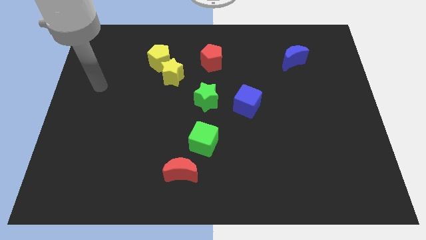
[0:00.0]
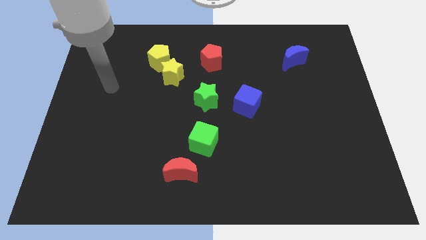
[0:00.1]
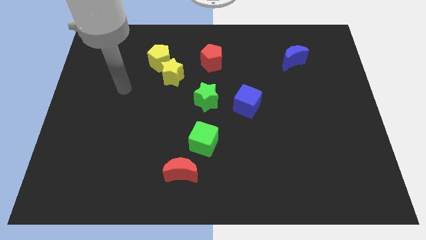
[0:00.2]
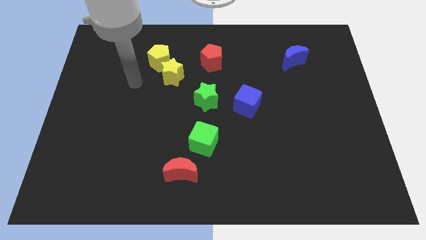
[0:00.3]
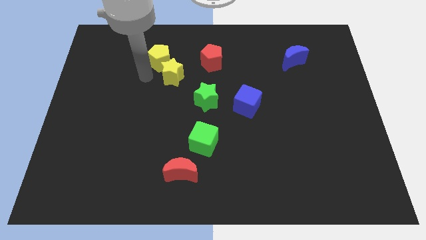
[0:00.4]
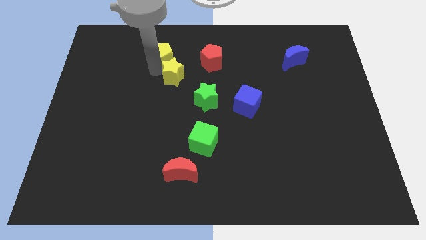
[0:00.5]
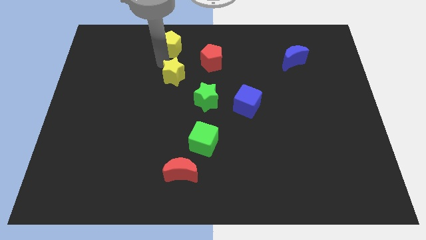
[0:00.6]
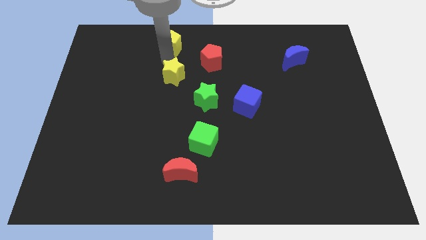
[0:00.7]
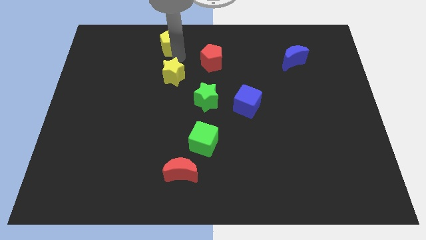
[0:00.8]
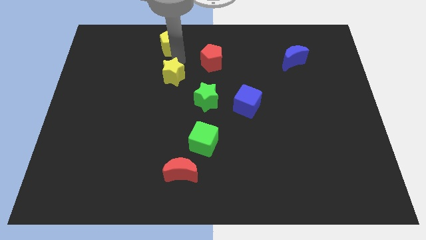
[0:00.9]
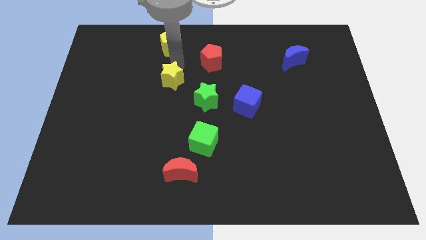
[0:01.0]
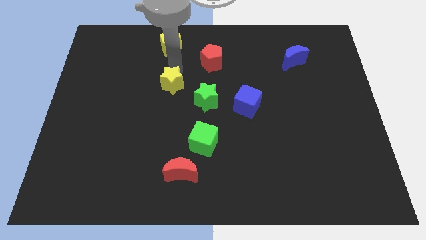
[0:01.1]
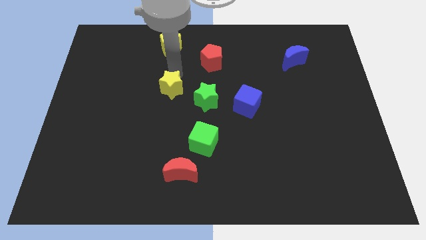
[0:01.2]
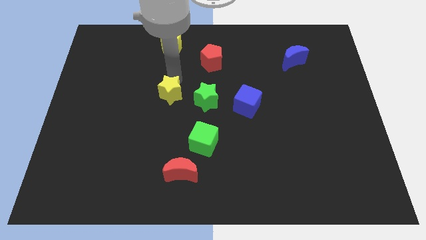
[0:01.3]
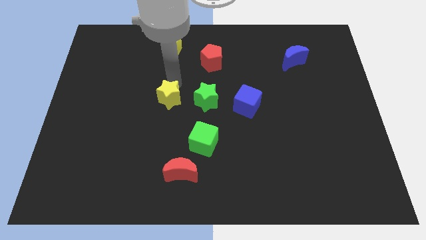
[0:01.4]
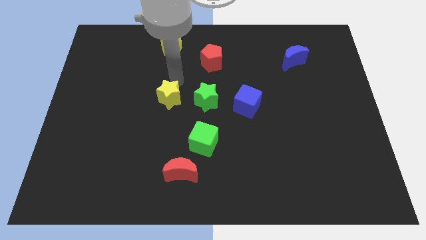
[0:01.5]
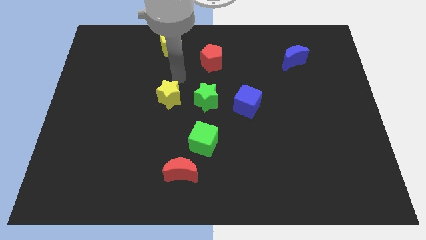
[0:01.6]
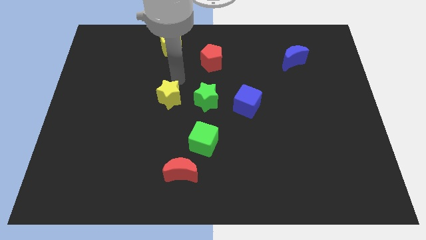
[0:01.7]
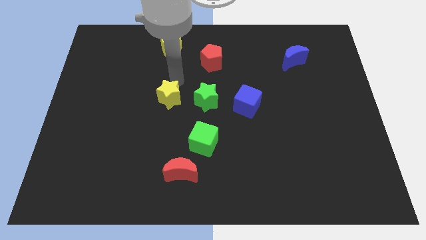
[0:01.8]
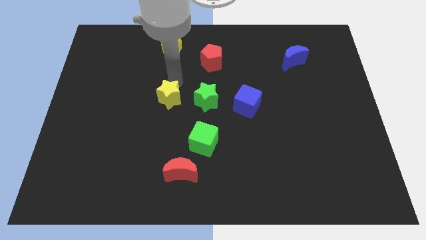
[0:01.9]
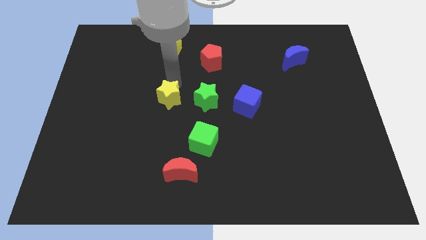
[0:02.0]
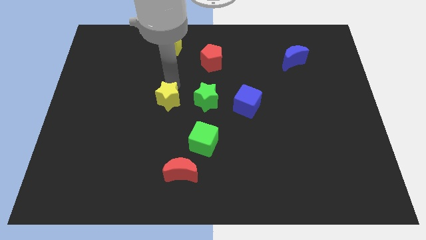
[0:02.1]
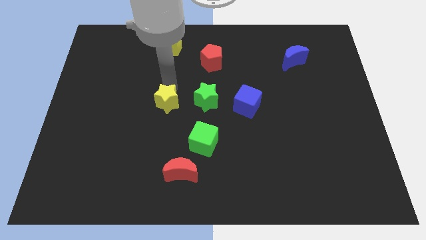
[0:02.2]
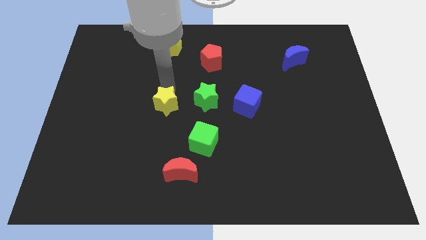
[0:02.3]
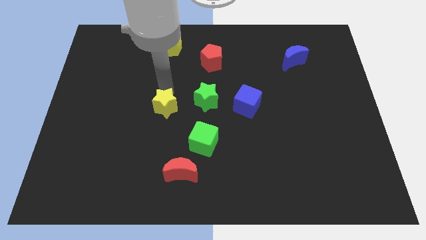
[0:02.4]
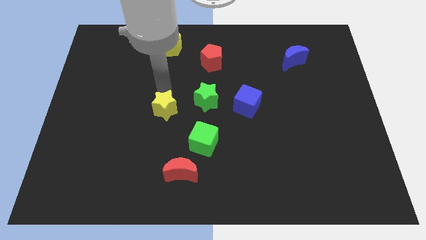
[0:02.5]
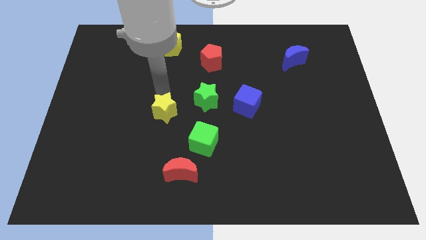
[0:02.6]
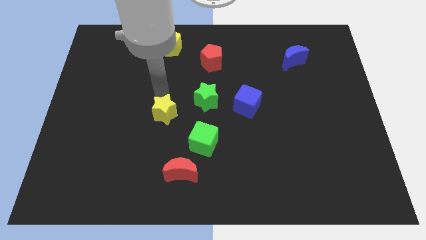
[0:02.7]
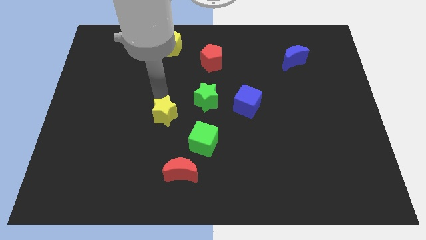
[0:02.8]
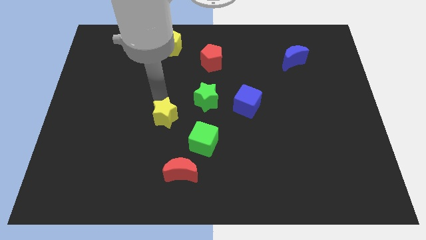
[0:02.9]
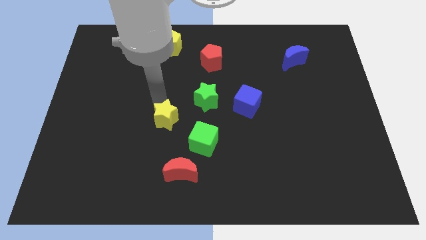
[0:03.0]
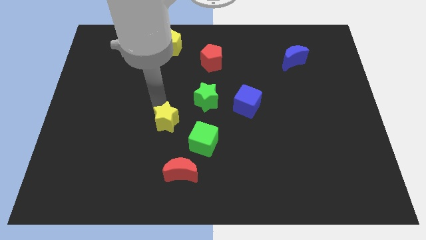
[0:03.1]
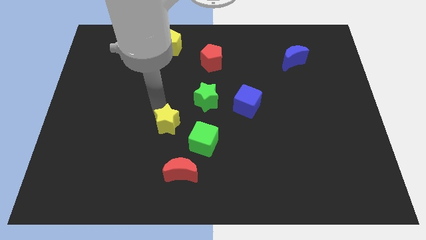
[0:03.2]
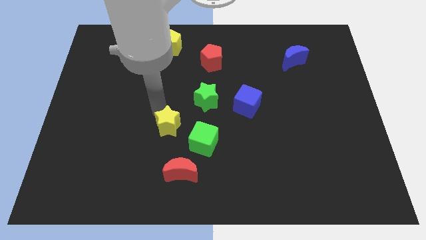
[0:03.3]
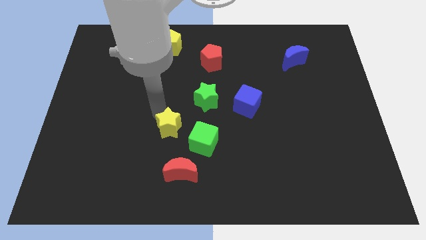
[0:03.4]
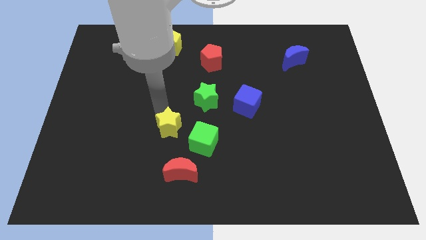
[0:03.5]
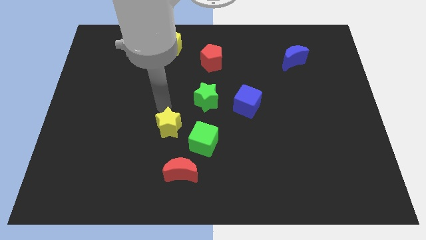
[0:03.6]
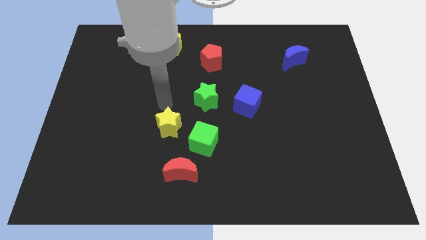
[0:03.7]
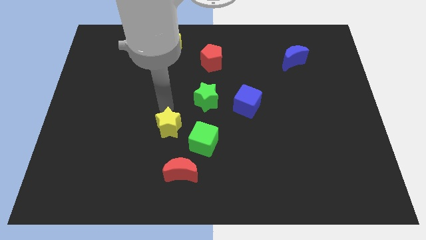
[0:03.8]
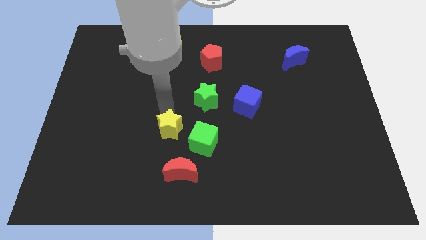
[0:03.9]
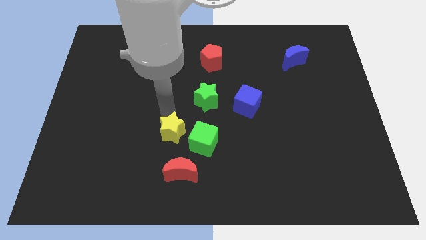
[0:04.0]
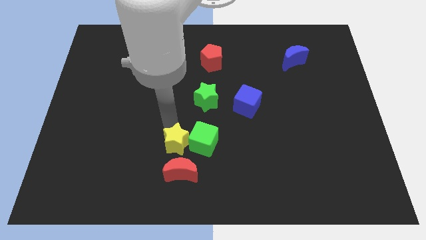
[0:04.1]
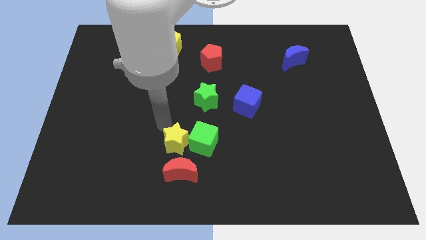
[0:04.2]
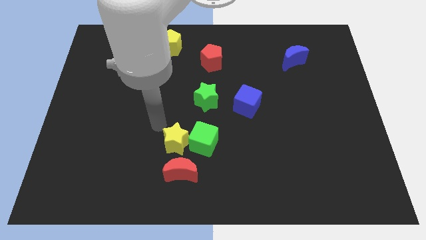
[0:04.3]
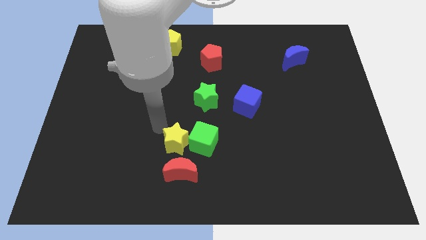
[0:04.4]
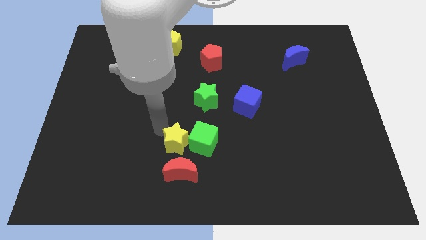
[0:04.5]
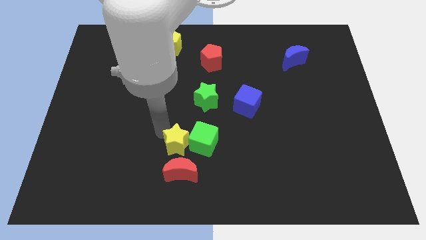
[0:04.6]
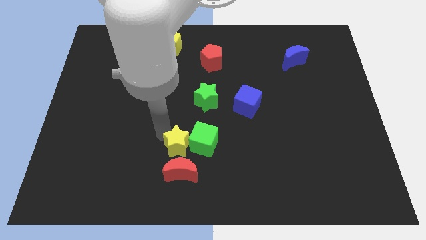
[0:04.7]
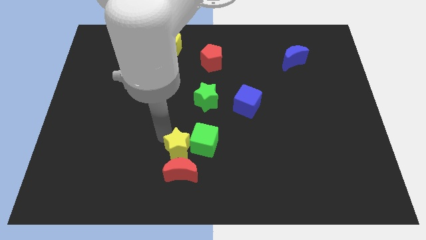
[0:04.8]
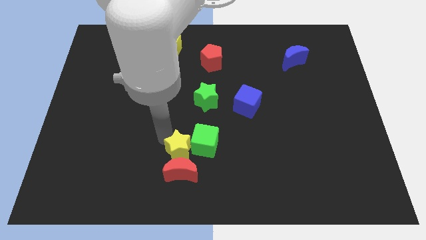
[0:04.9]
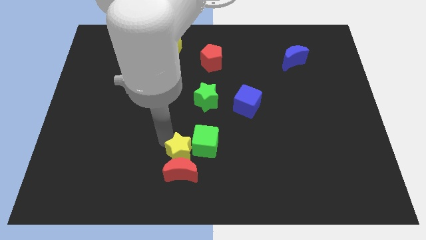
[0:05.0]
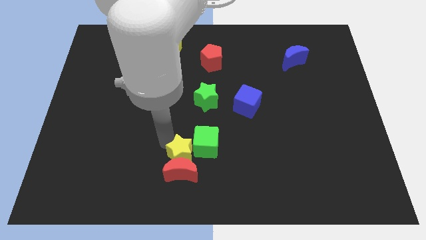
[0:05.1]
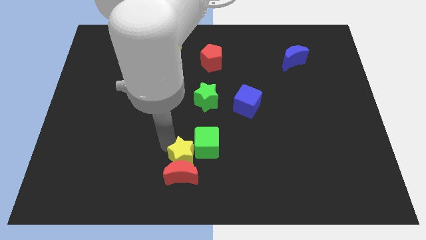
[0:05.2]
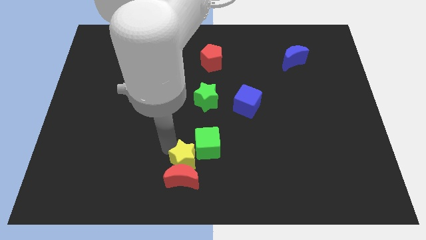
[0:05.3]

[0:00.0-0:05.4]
move the yellow star to the bottom side
